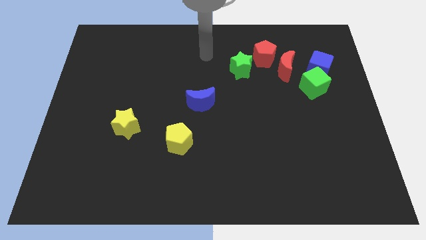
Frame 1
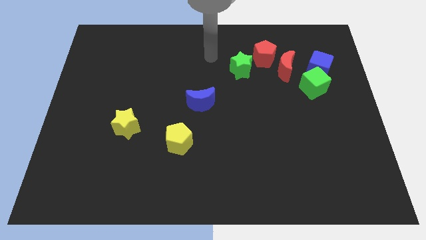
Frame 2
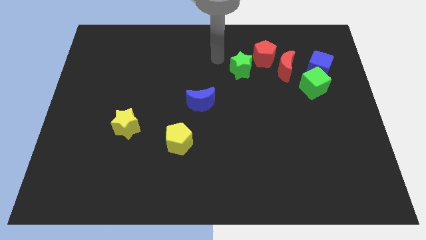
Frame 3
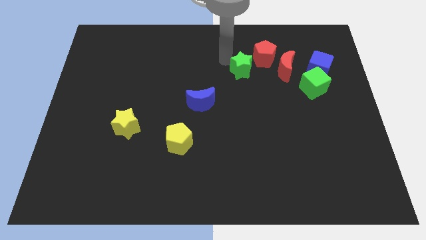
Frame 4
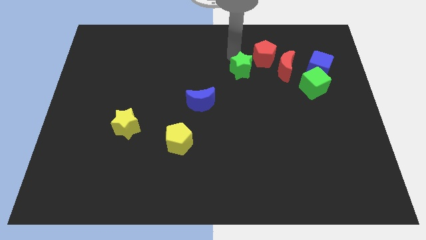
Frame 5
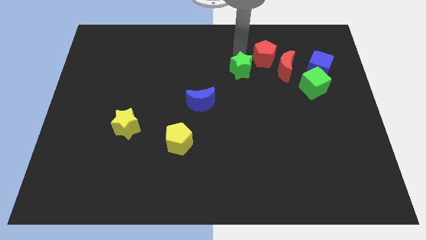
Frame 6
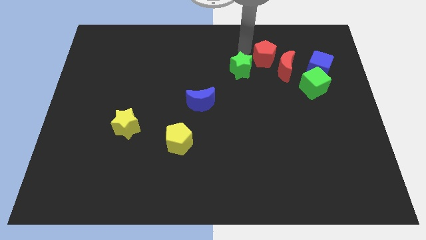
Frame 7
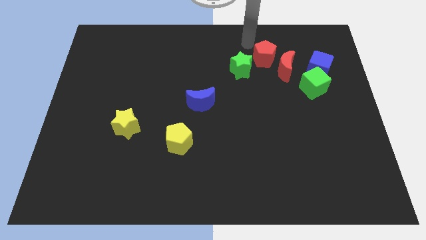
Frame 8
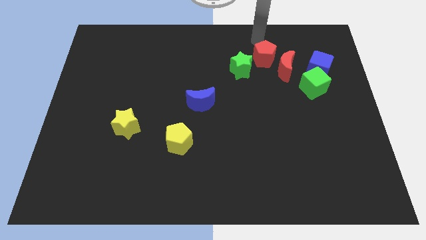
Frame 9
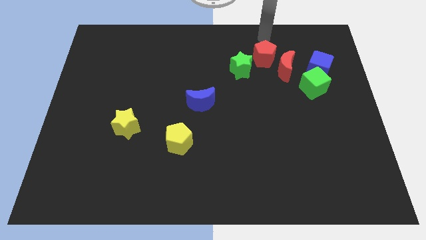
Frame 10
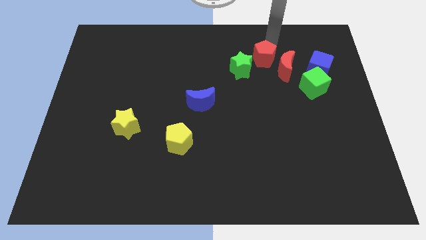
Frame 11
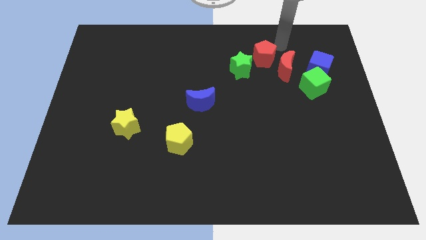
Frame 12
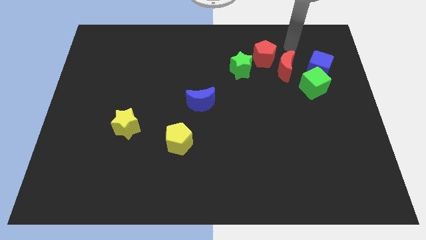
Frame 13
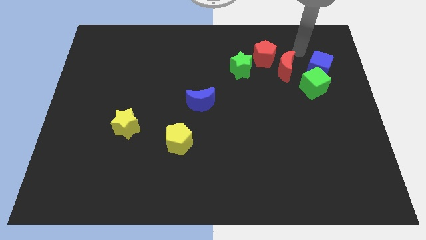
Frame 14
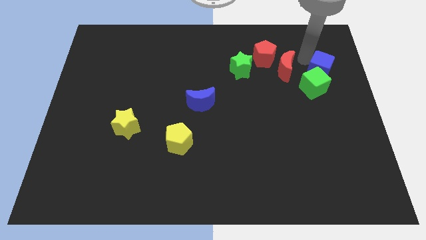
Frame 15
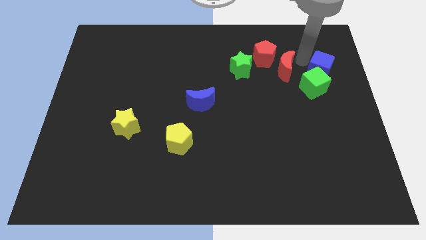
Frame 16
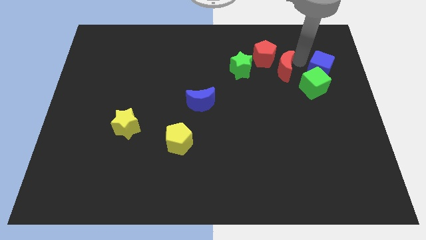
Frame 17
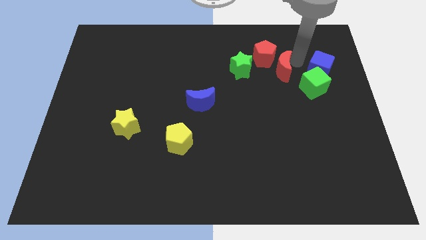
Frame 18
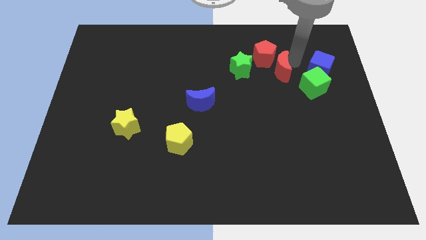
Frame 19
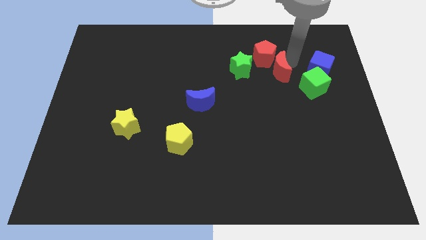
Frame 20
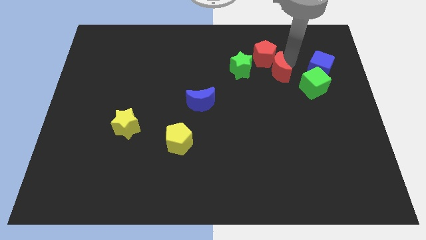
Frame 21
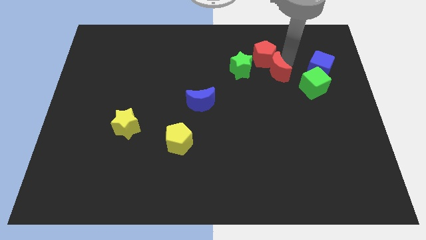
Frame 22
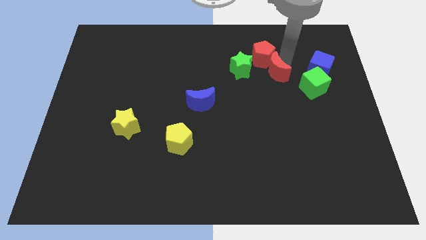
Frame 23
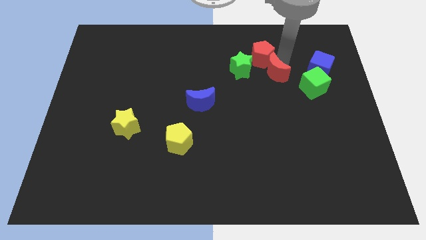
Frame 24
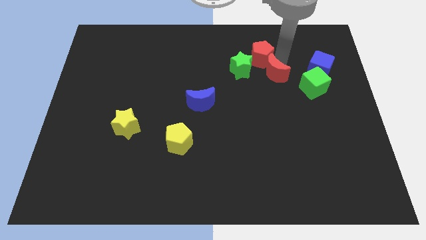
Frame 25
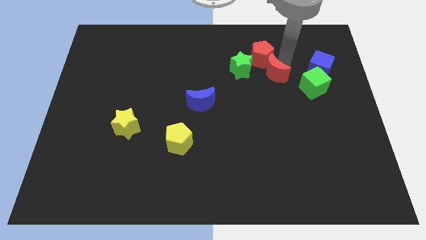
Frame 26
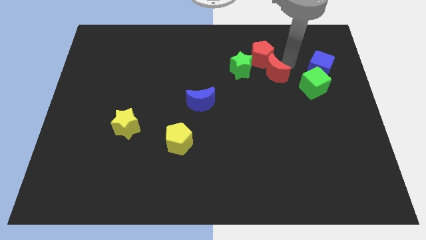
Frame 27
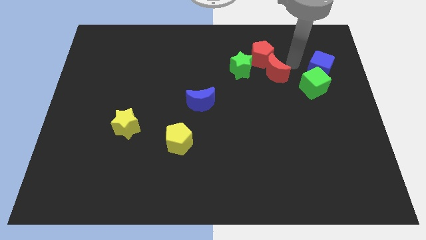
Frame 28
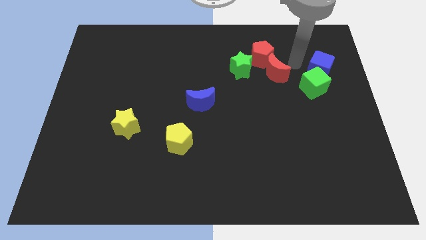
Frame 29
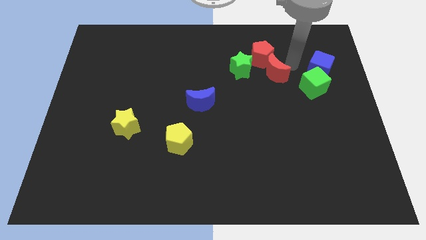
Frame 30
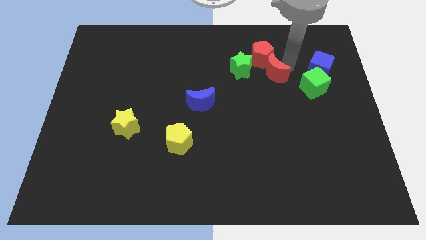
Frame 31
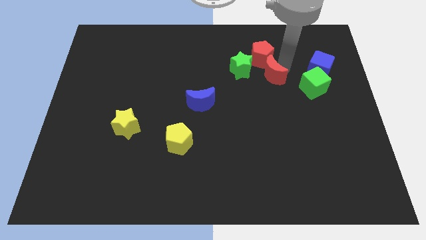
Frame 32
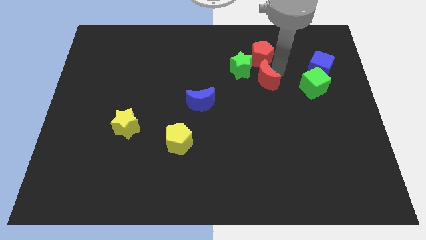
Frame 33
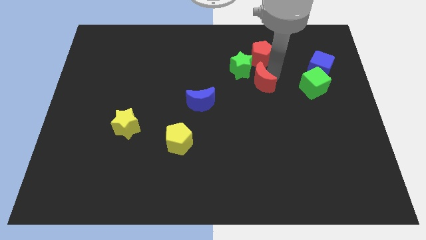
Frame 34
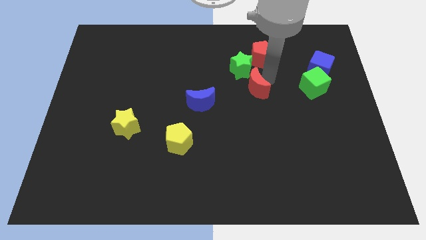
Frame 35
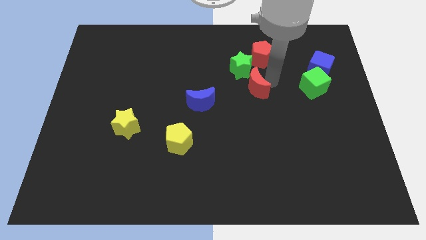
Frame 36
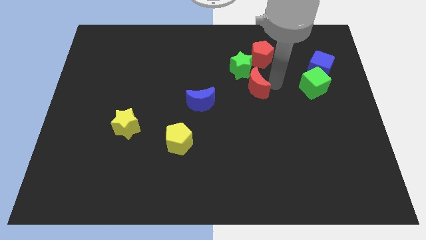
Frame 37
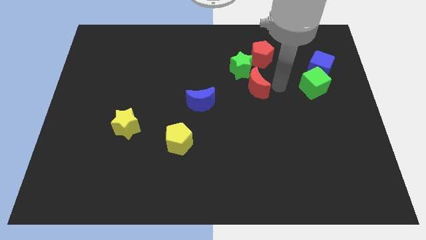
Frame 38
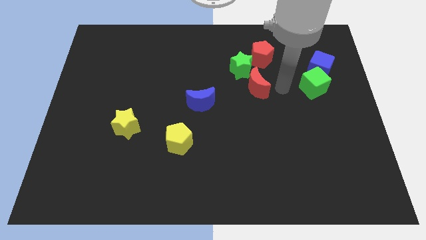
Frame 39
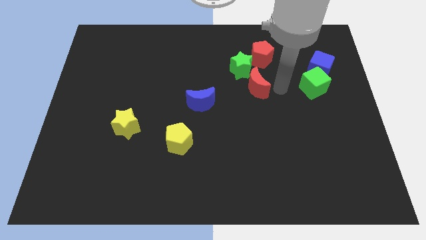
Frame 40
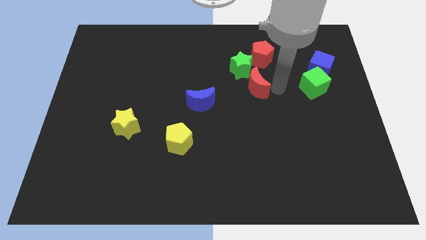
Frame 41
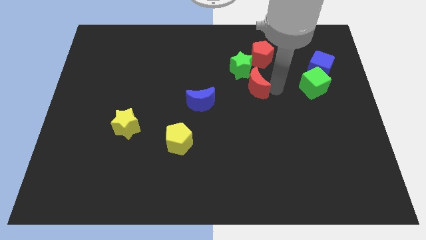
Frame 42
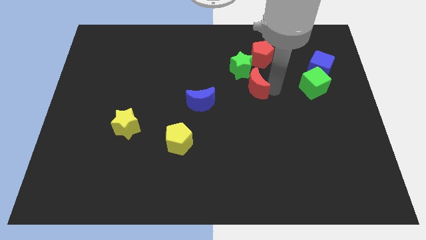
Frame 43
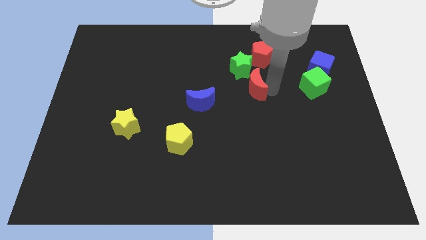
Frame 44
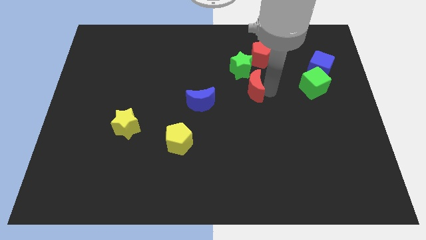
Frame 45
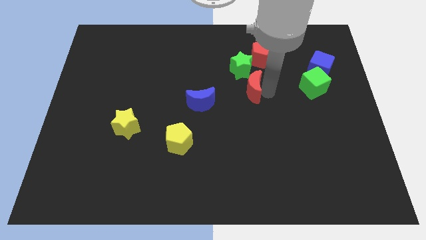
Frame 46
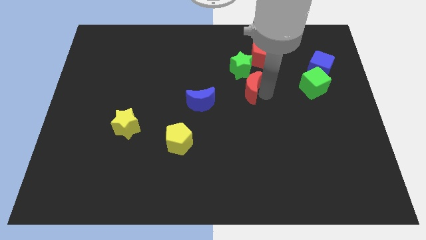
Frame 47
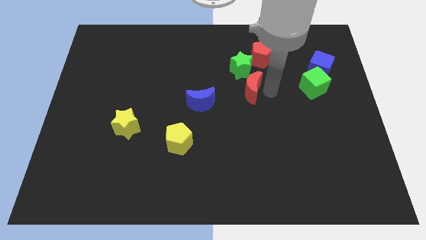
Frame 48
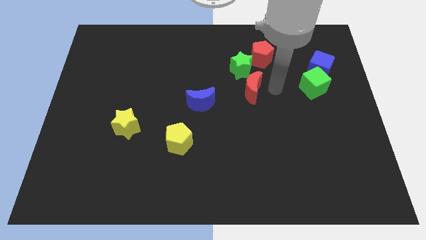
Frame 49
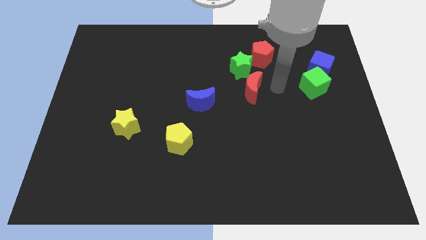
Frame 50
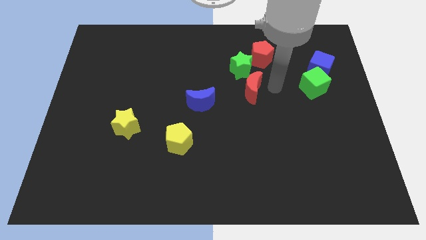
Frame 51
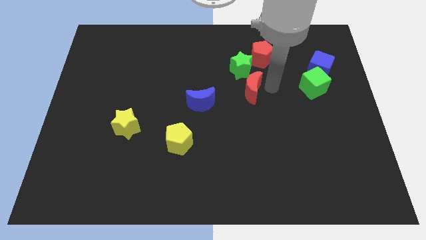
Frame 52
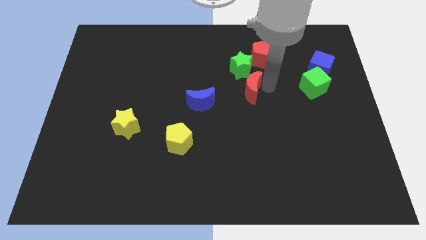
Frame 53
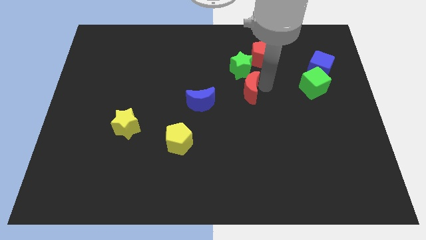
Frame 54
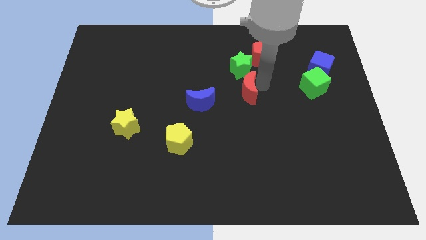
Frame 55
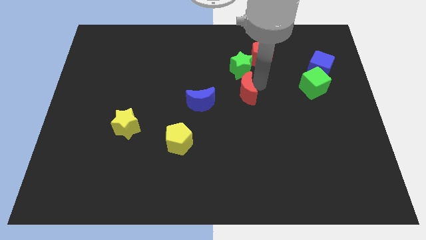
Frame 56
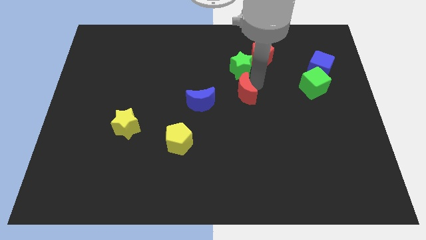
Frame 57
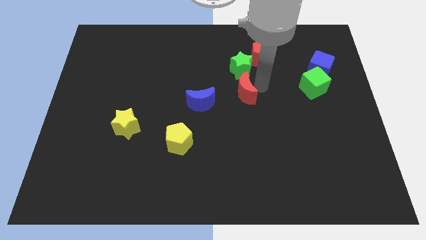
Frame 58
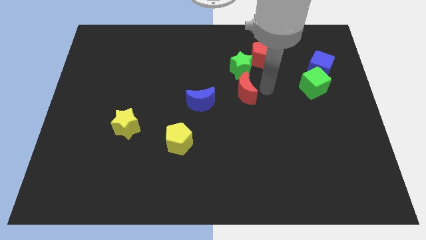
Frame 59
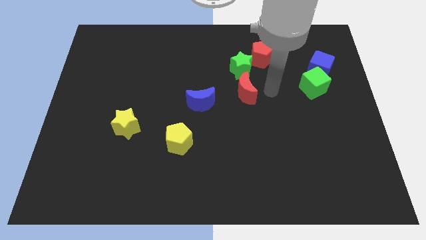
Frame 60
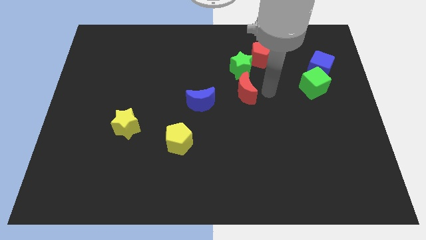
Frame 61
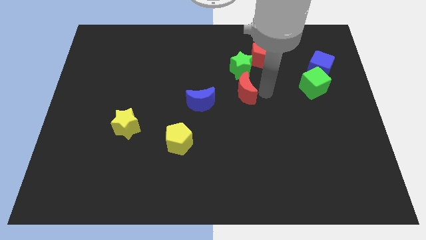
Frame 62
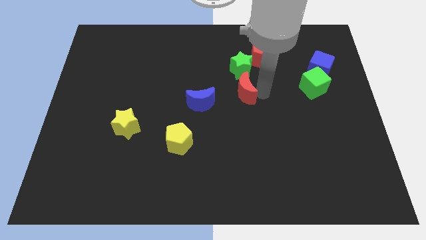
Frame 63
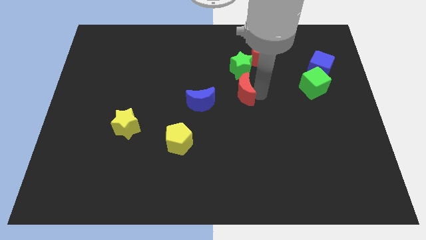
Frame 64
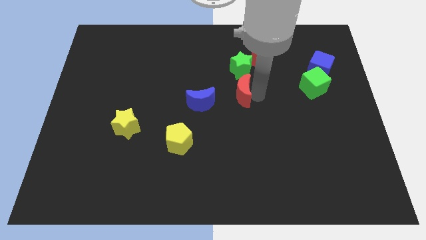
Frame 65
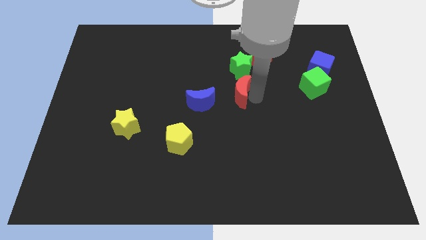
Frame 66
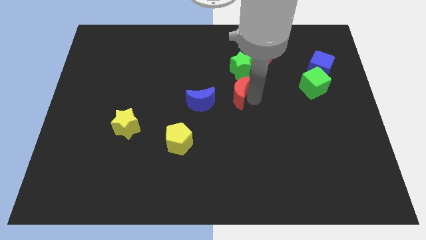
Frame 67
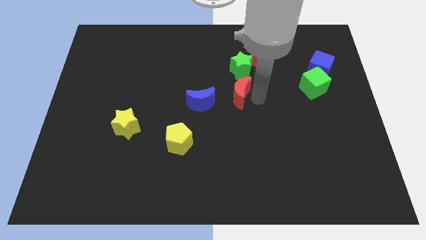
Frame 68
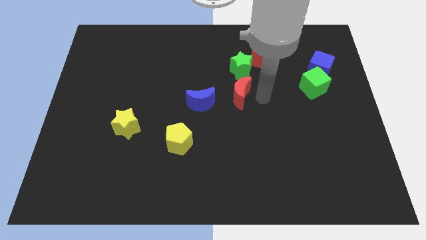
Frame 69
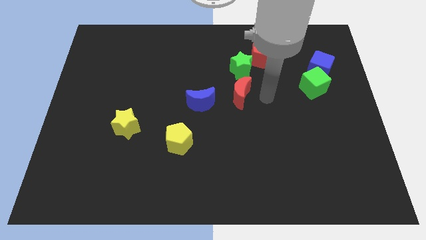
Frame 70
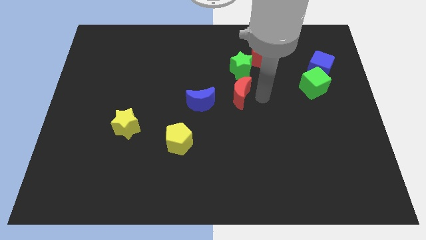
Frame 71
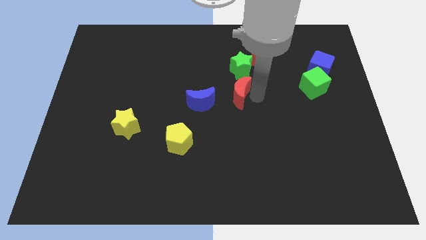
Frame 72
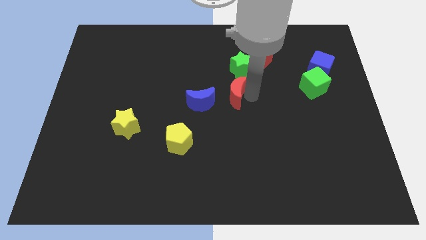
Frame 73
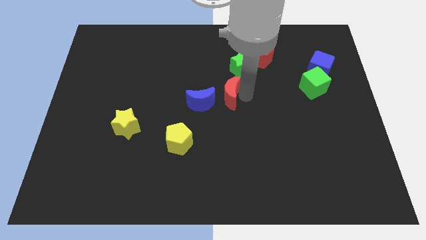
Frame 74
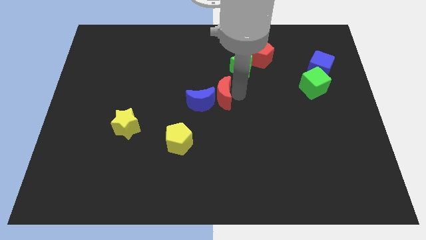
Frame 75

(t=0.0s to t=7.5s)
move the red moon to the blue moon
